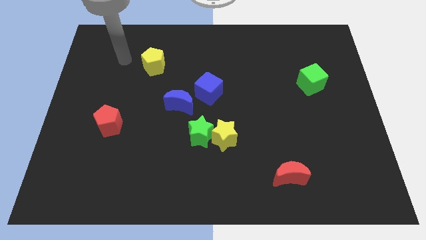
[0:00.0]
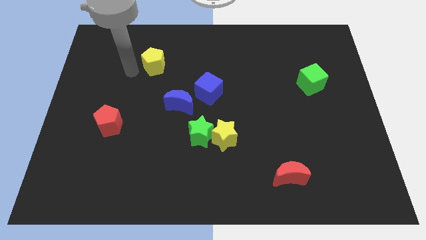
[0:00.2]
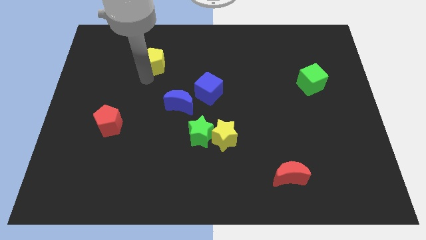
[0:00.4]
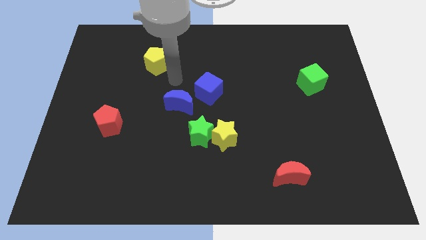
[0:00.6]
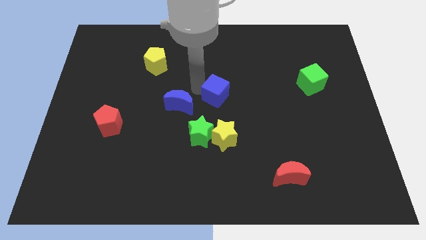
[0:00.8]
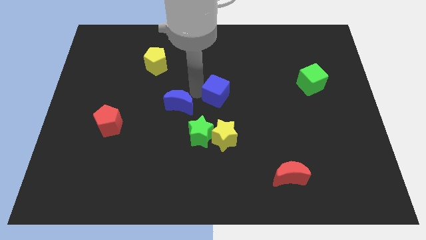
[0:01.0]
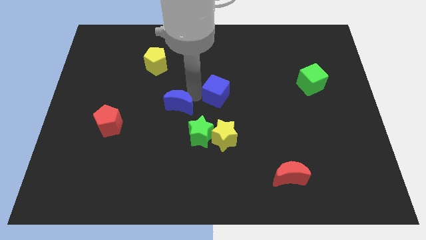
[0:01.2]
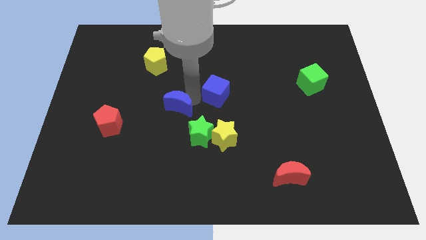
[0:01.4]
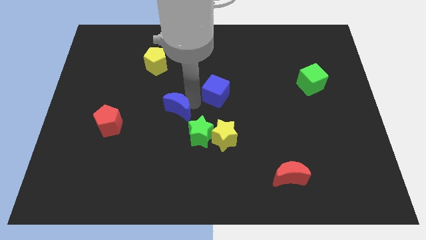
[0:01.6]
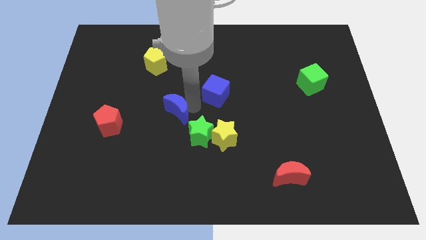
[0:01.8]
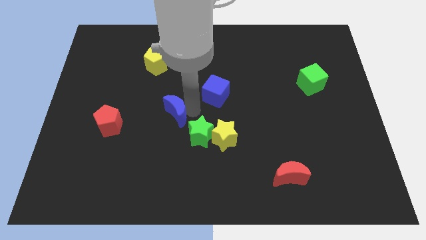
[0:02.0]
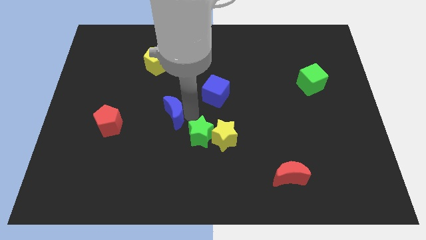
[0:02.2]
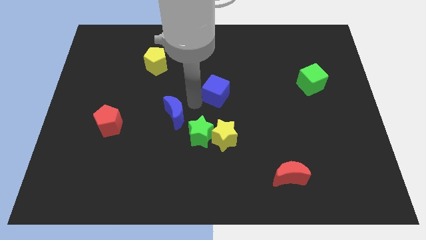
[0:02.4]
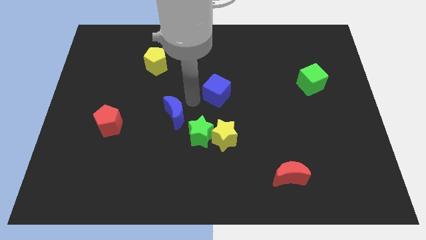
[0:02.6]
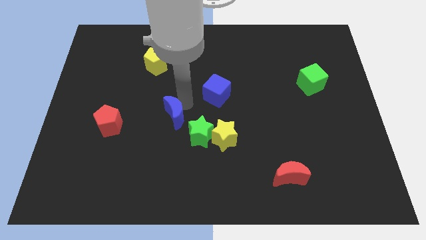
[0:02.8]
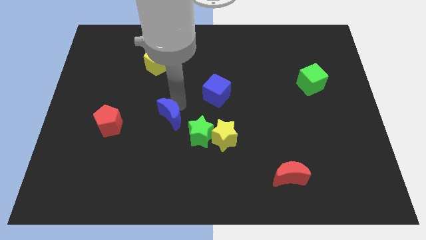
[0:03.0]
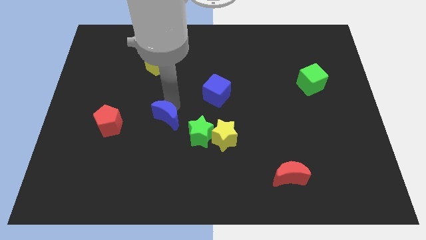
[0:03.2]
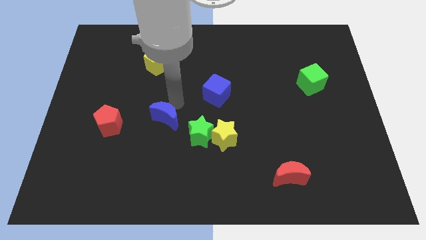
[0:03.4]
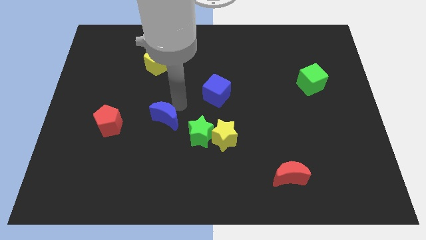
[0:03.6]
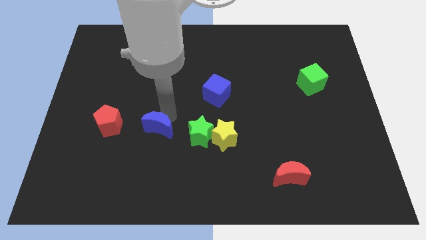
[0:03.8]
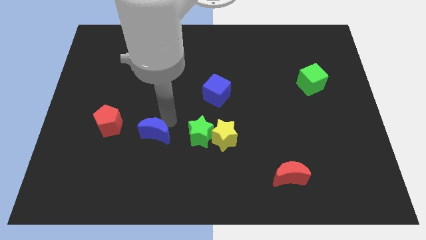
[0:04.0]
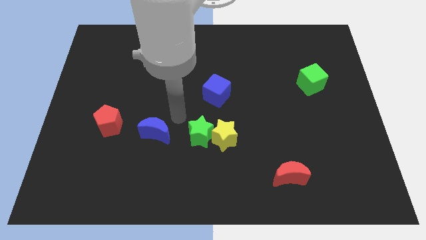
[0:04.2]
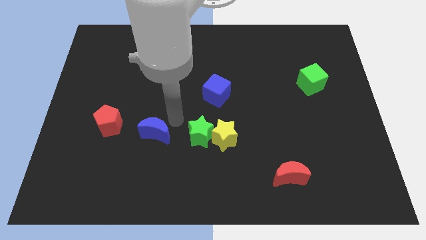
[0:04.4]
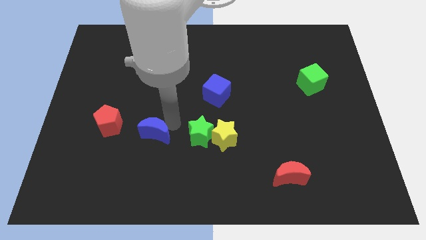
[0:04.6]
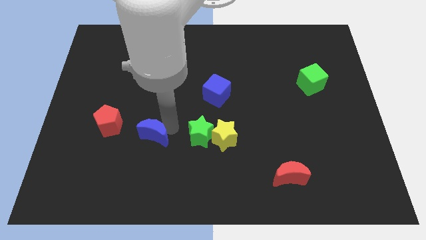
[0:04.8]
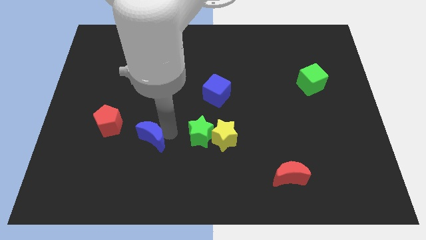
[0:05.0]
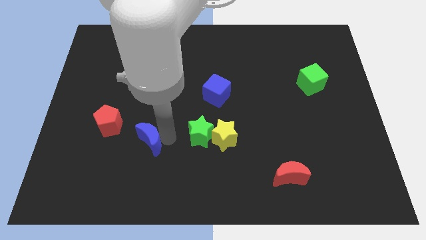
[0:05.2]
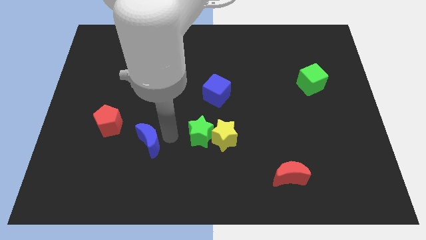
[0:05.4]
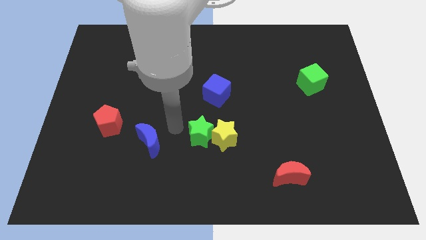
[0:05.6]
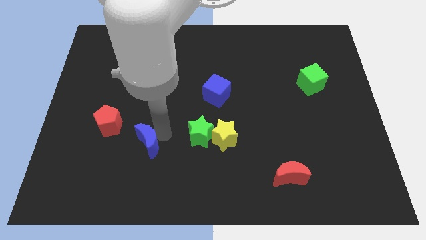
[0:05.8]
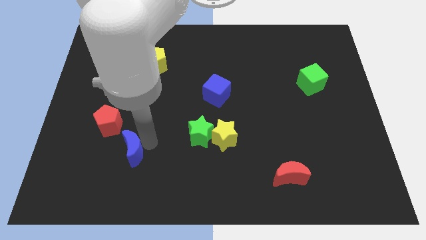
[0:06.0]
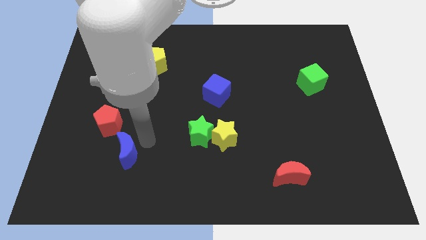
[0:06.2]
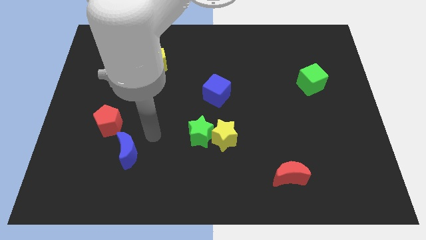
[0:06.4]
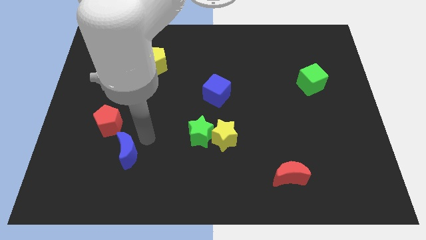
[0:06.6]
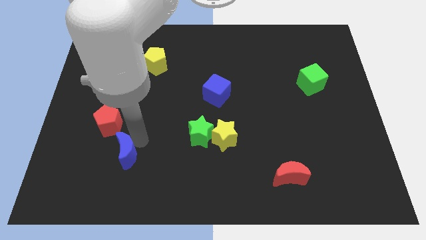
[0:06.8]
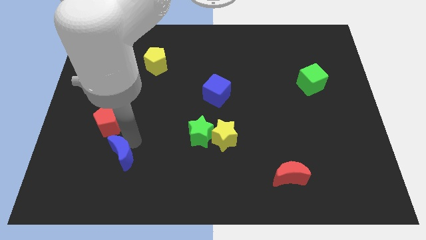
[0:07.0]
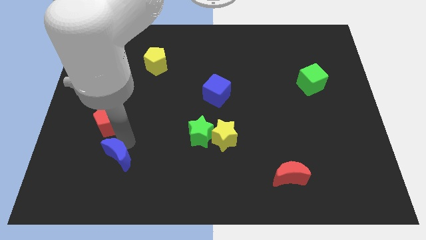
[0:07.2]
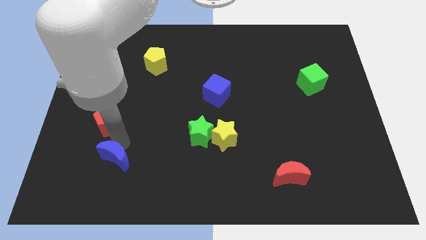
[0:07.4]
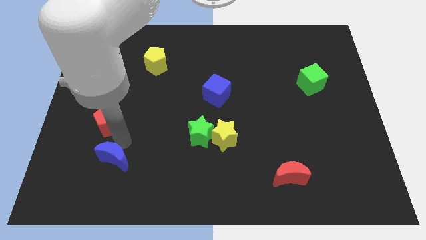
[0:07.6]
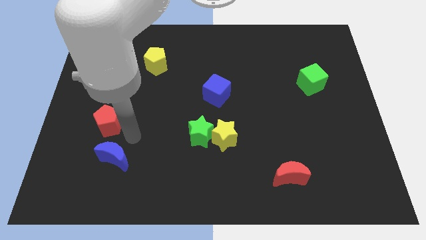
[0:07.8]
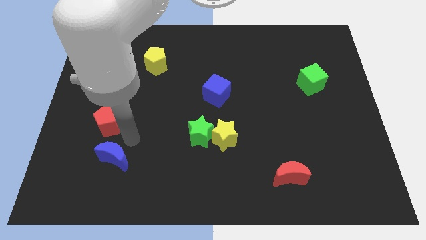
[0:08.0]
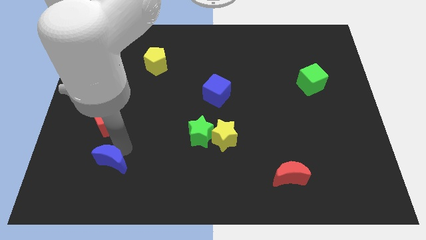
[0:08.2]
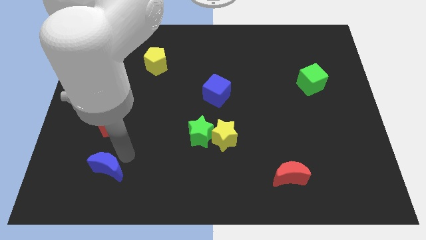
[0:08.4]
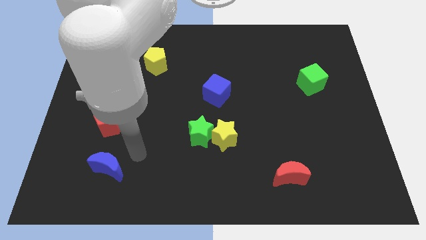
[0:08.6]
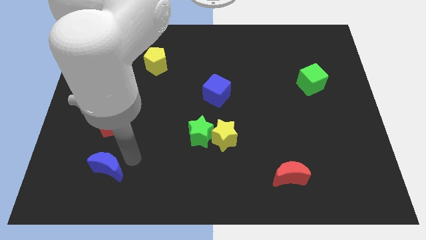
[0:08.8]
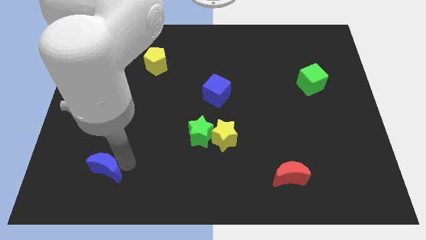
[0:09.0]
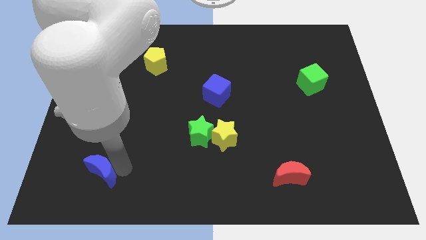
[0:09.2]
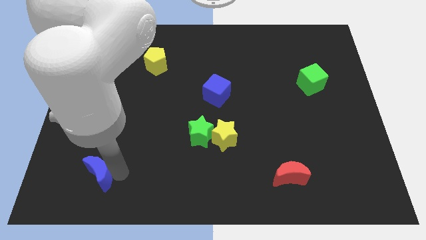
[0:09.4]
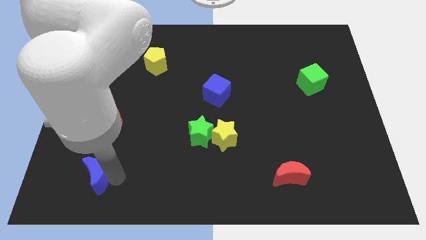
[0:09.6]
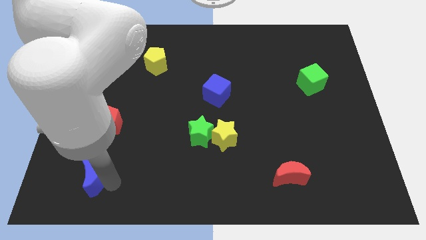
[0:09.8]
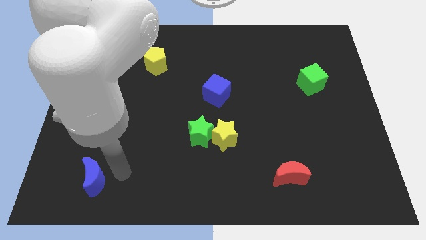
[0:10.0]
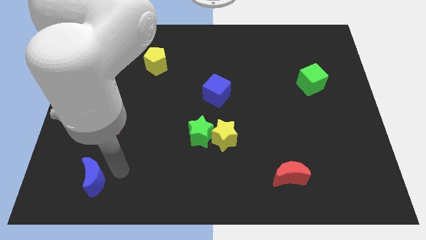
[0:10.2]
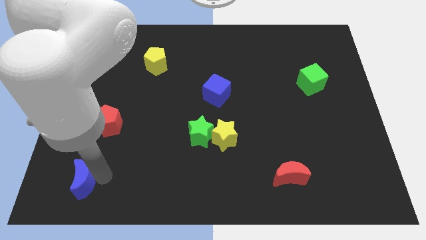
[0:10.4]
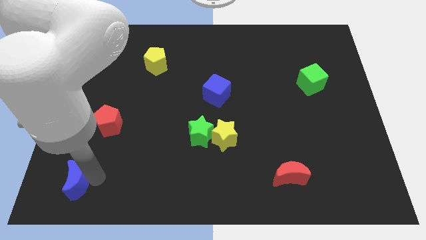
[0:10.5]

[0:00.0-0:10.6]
slide the blue moon to the lower left corner

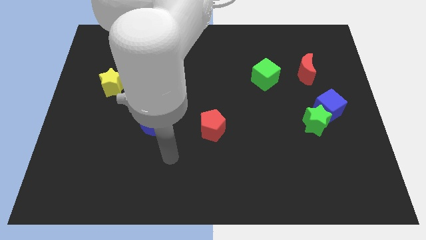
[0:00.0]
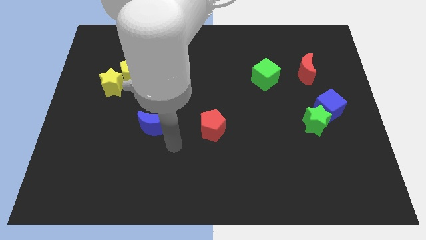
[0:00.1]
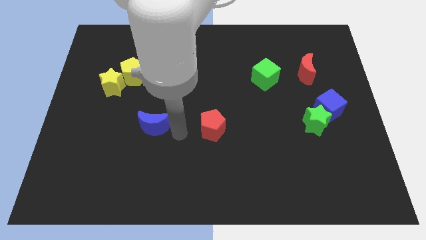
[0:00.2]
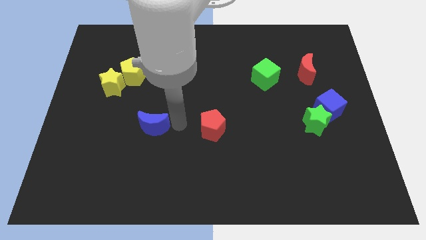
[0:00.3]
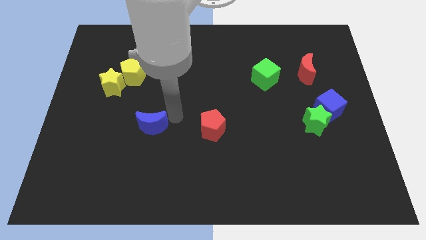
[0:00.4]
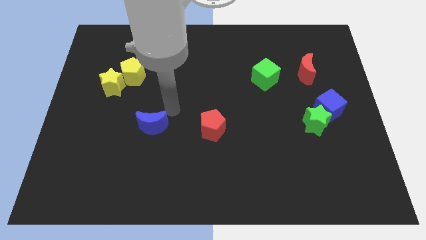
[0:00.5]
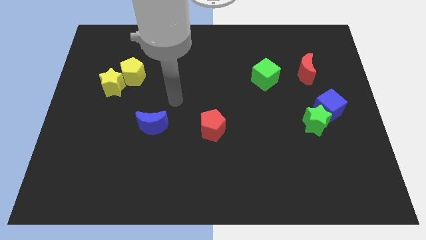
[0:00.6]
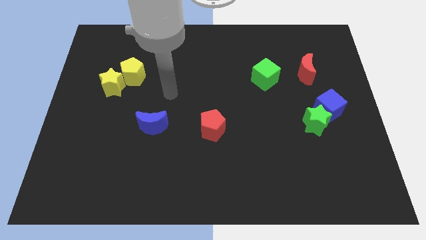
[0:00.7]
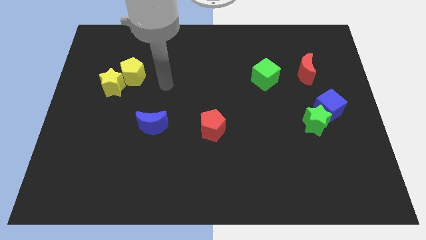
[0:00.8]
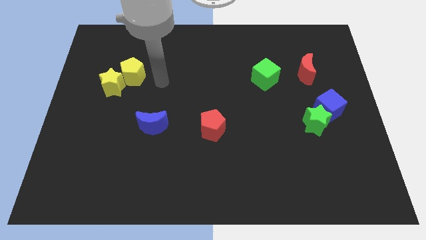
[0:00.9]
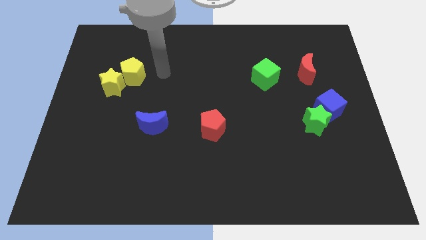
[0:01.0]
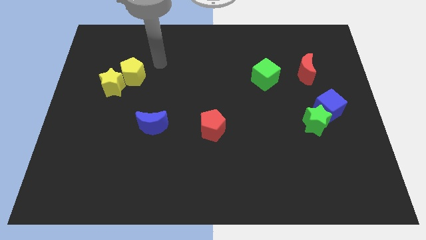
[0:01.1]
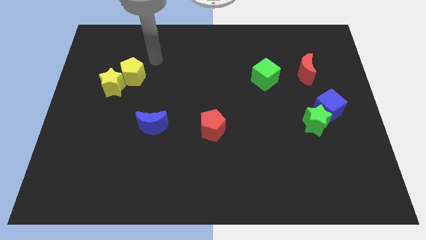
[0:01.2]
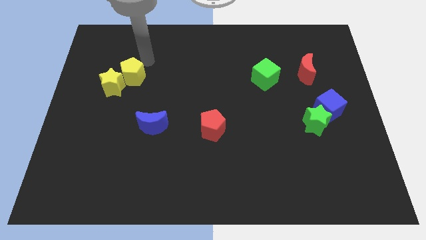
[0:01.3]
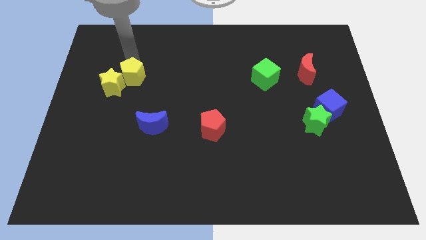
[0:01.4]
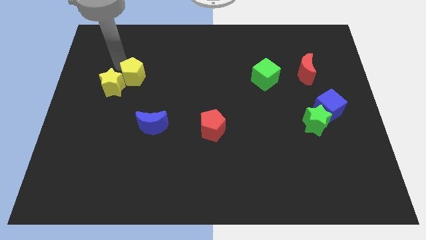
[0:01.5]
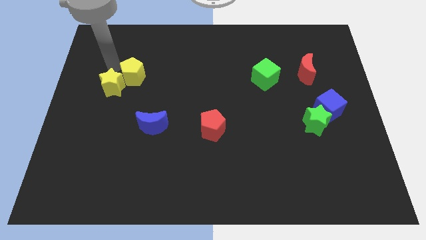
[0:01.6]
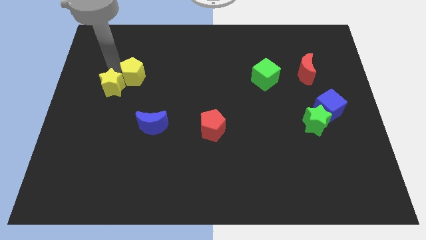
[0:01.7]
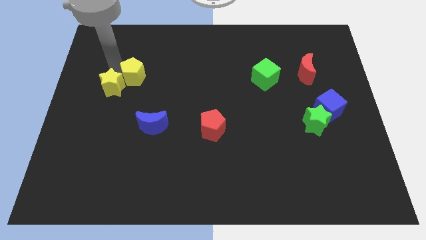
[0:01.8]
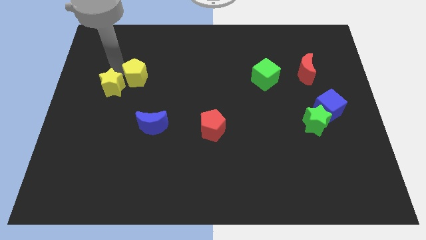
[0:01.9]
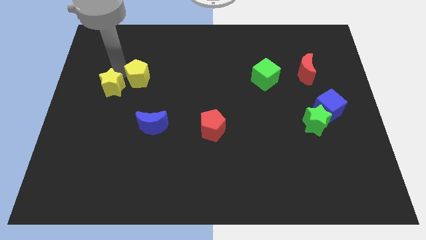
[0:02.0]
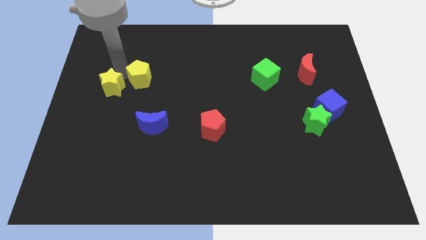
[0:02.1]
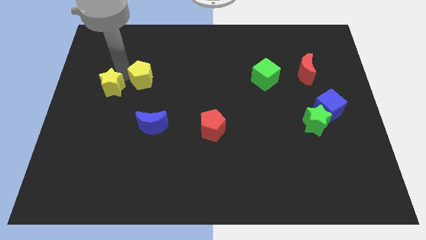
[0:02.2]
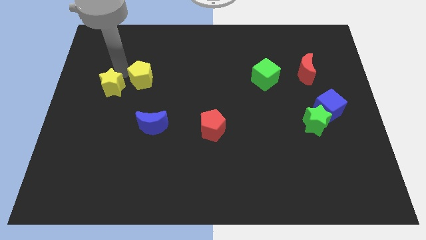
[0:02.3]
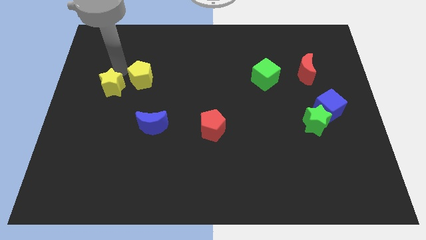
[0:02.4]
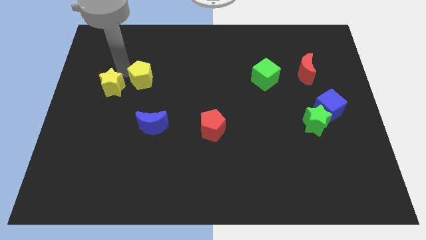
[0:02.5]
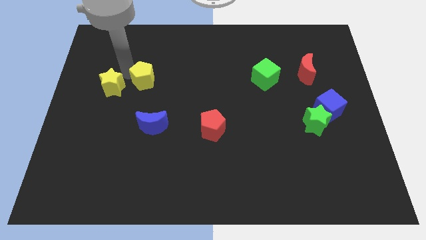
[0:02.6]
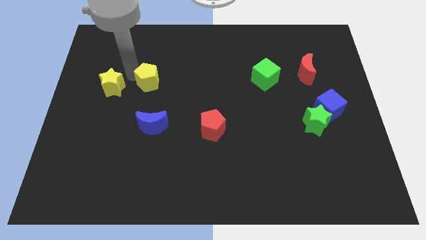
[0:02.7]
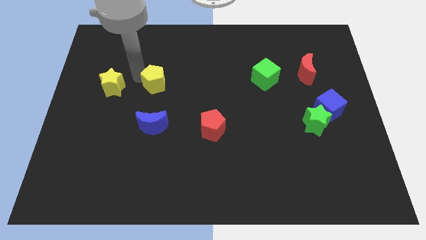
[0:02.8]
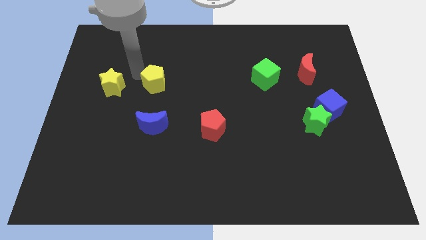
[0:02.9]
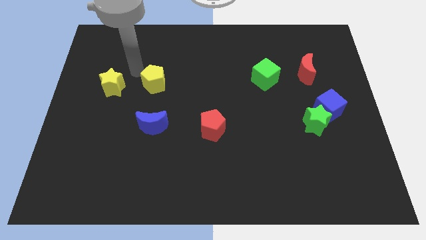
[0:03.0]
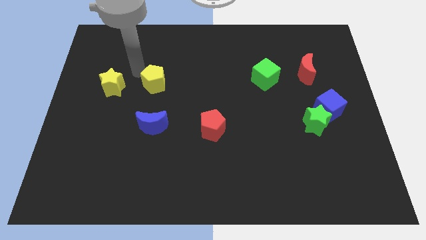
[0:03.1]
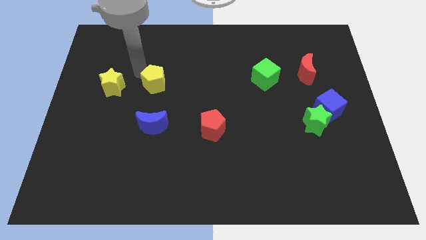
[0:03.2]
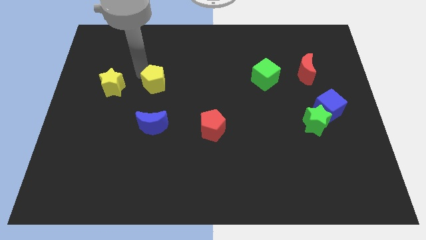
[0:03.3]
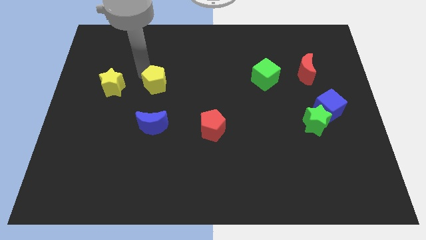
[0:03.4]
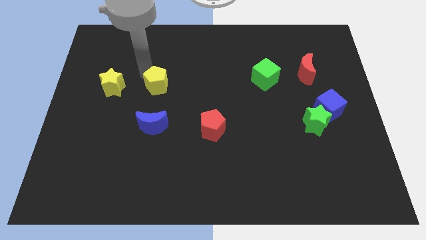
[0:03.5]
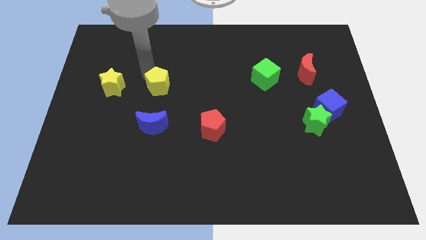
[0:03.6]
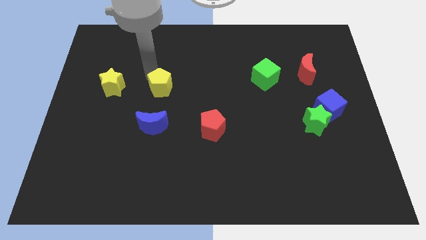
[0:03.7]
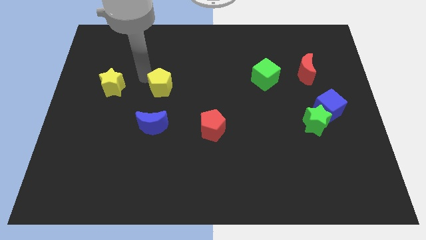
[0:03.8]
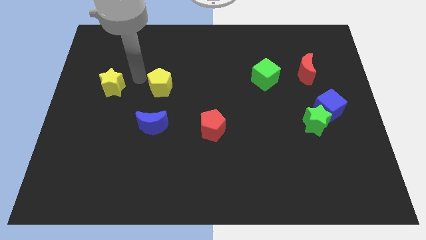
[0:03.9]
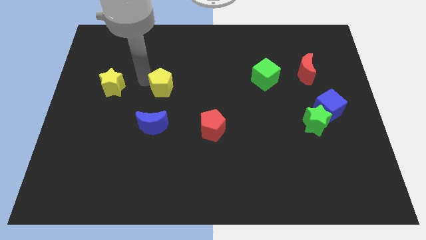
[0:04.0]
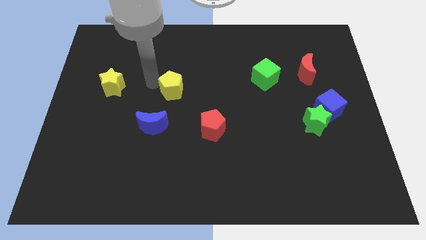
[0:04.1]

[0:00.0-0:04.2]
move the yellow pentagon to the middle of the board
